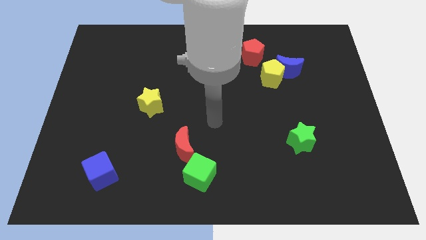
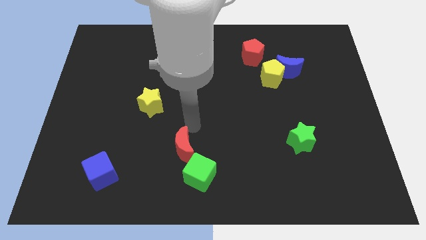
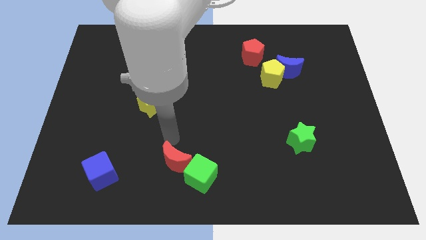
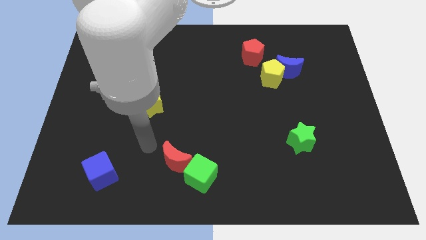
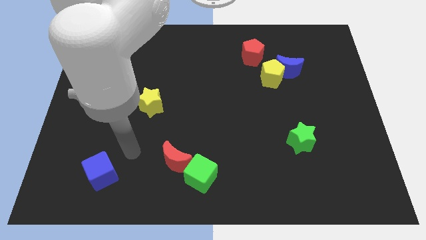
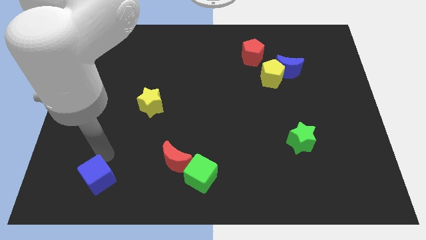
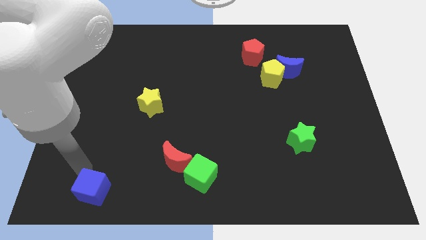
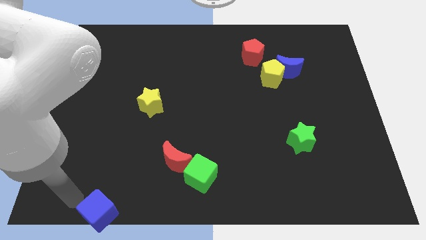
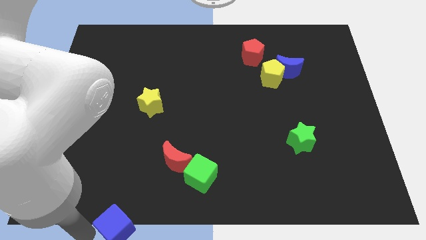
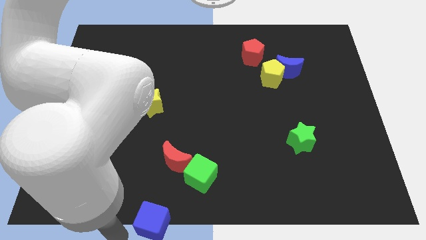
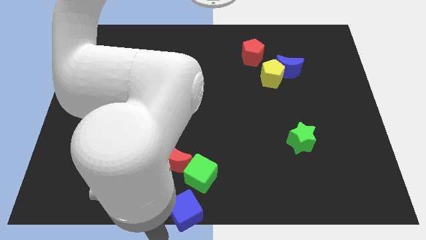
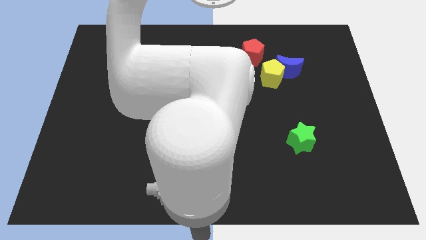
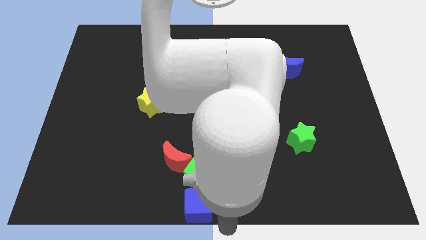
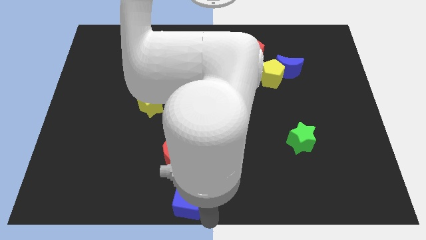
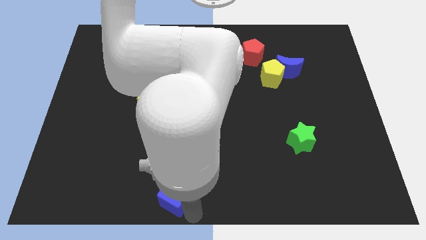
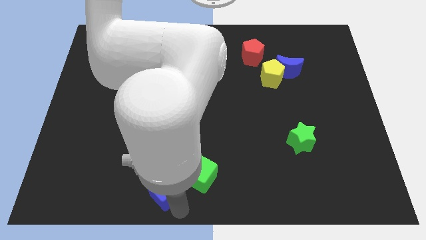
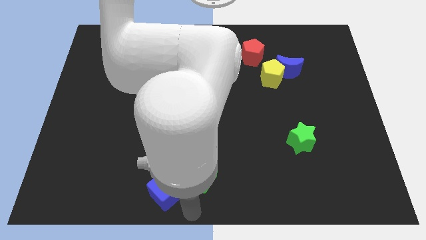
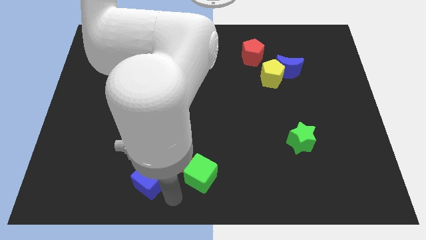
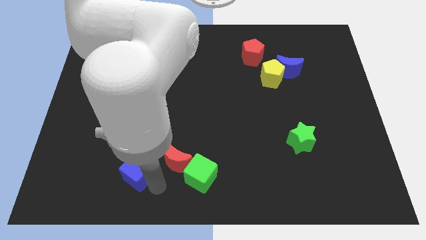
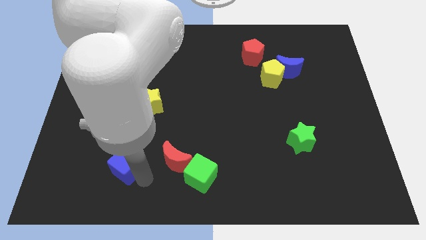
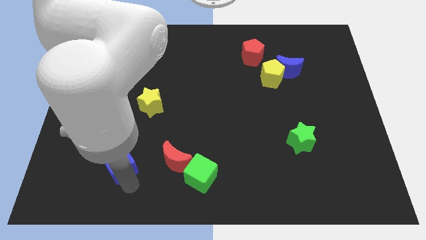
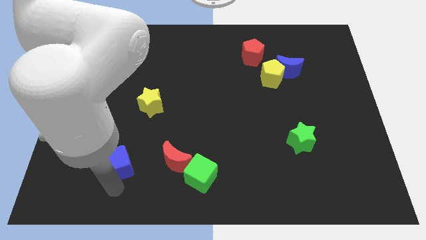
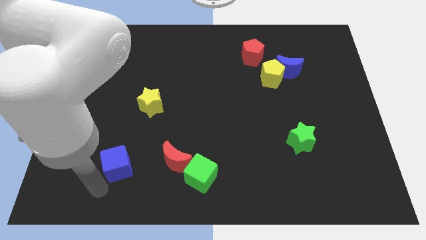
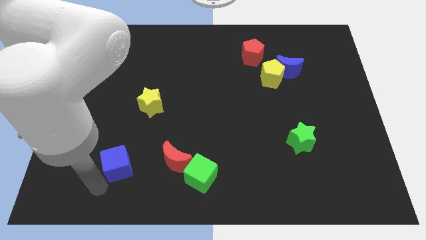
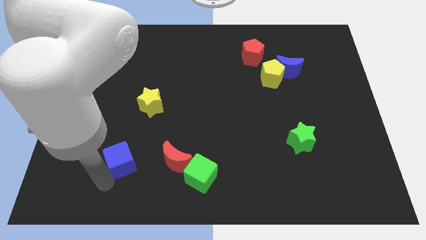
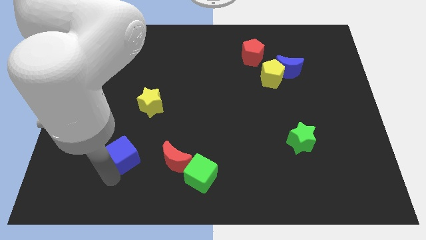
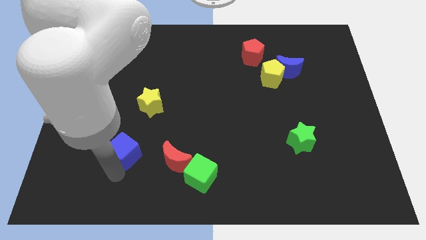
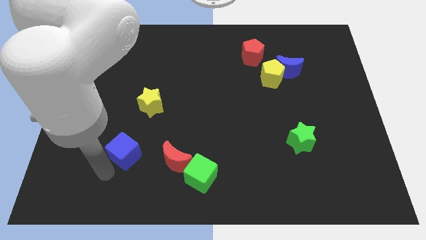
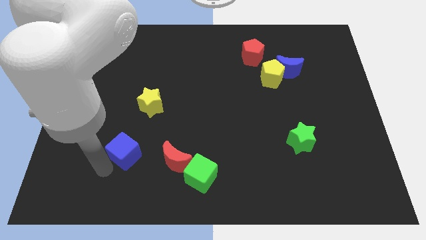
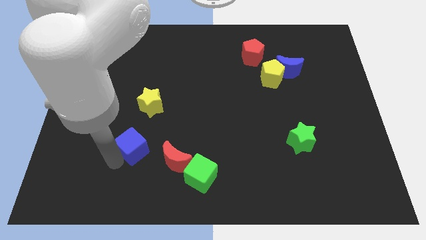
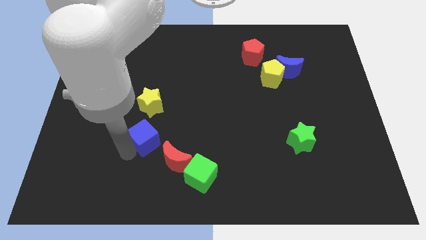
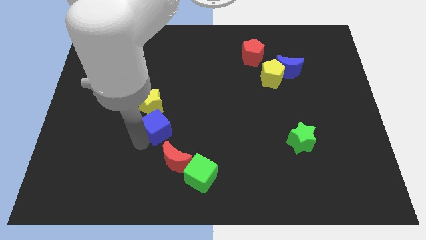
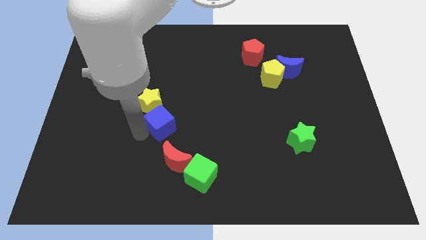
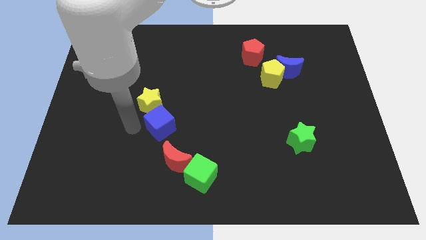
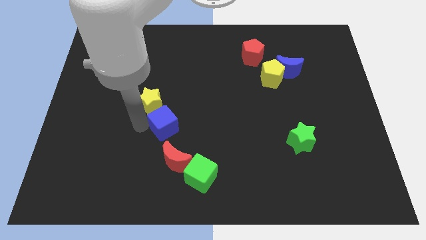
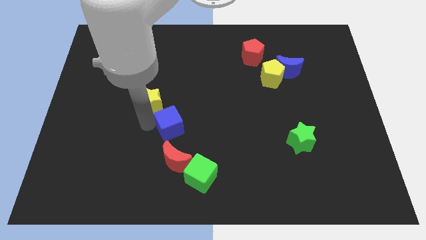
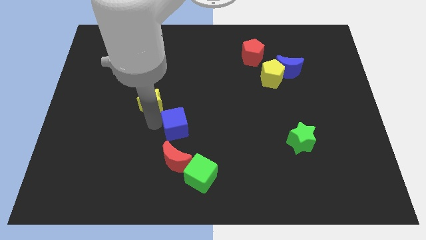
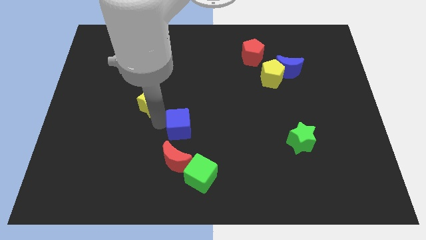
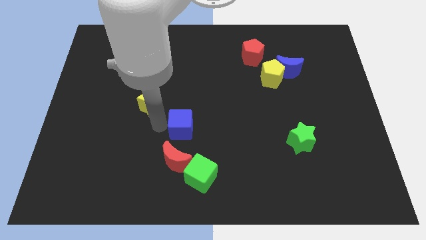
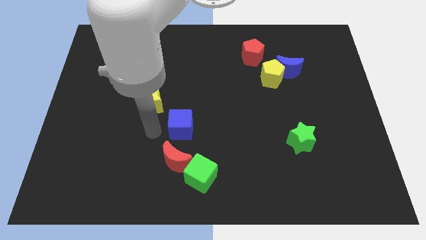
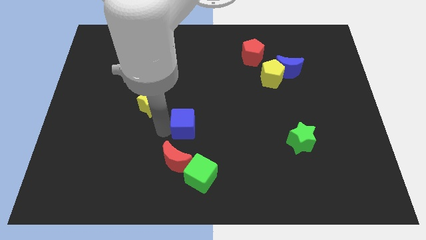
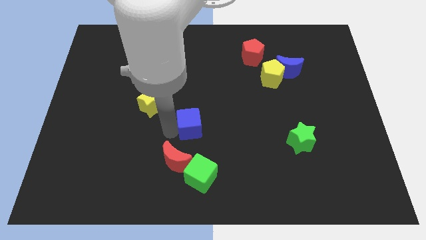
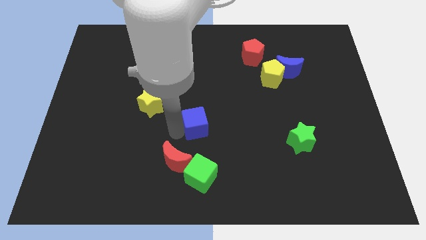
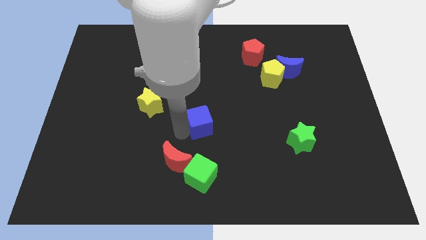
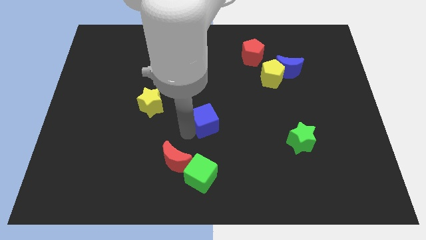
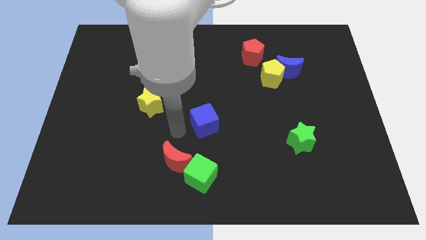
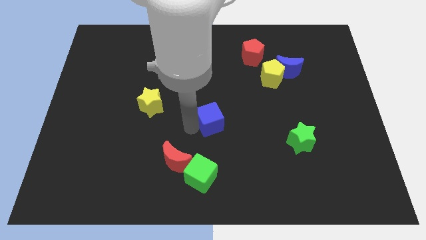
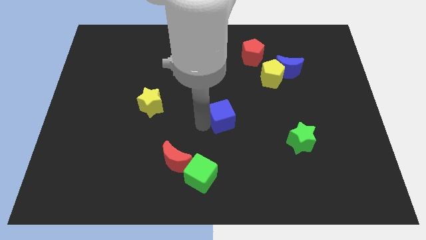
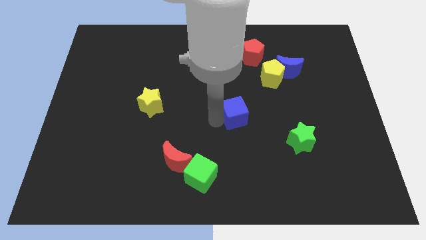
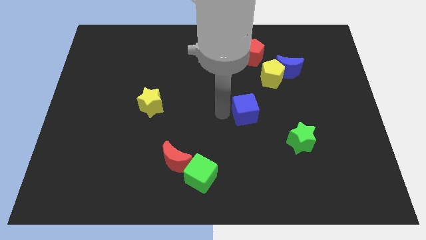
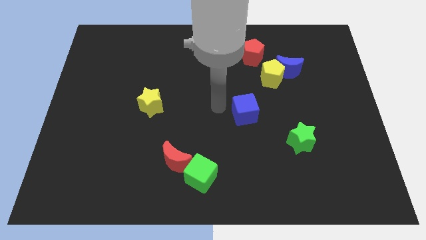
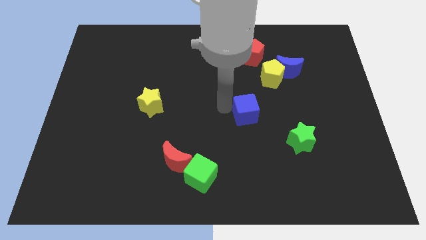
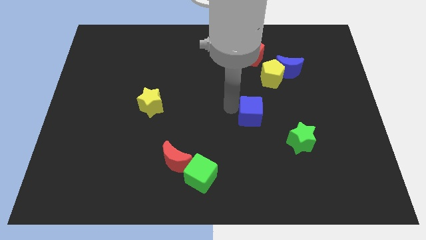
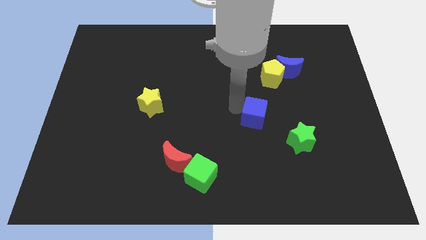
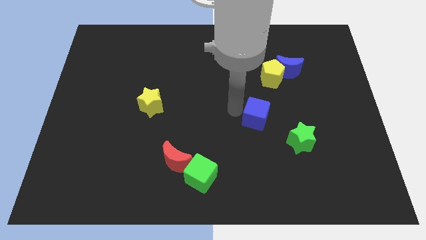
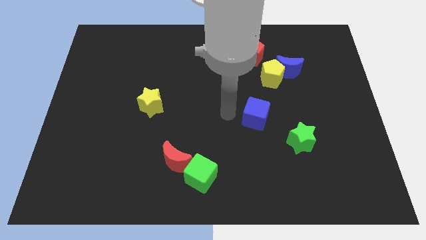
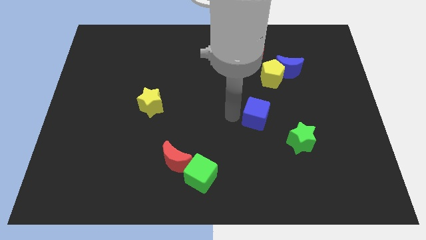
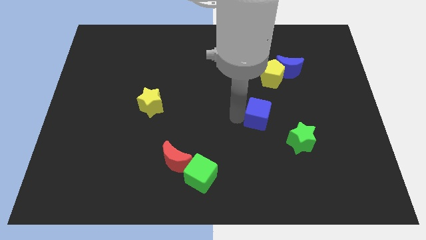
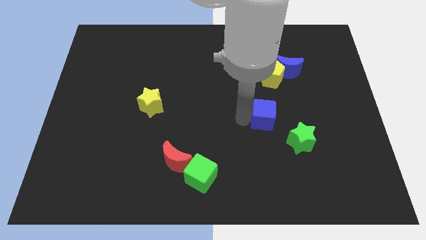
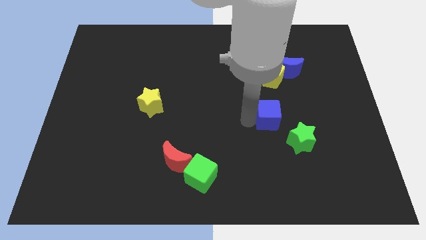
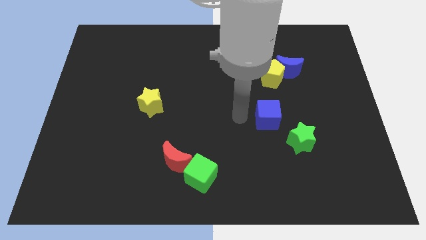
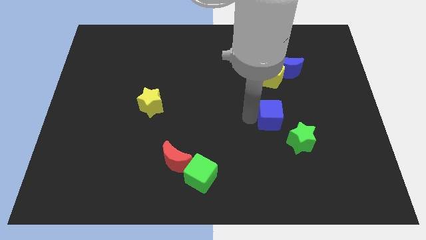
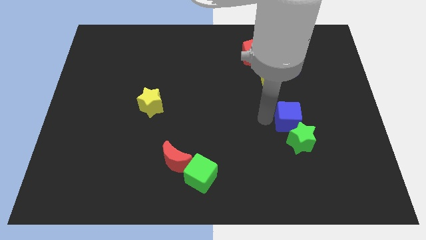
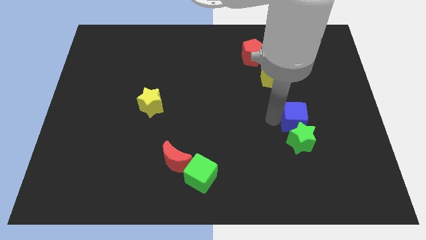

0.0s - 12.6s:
put the blue cube to the top right of the green star

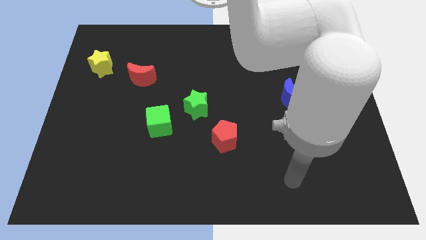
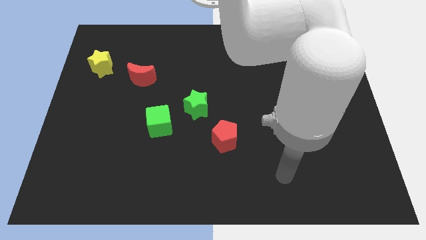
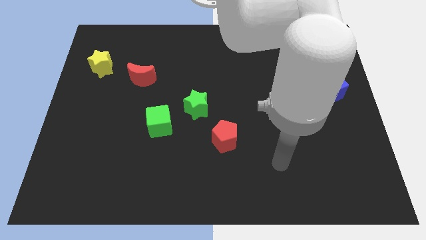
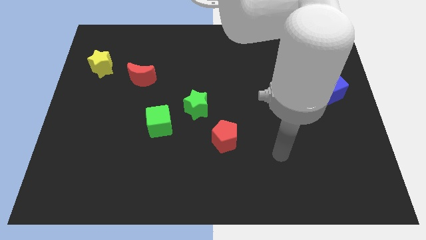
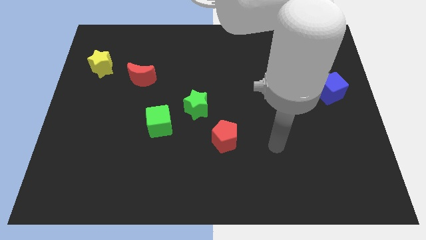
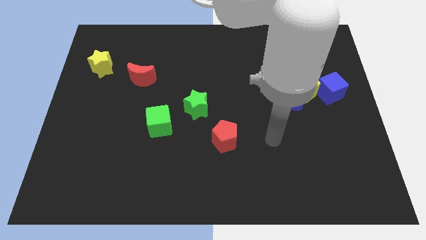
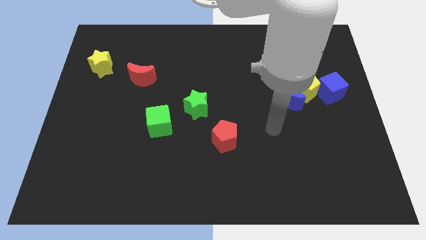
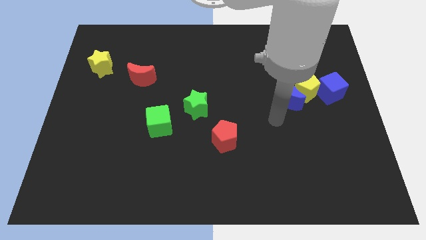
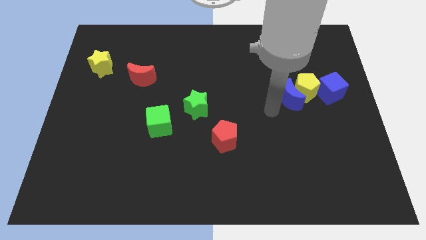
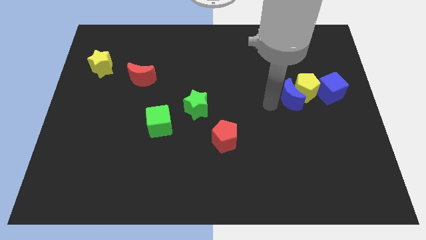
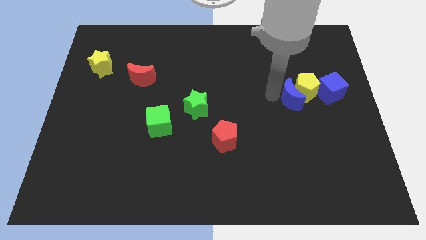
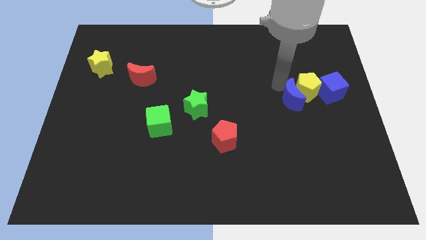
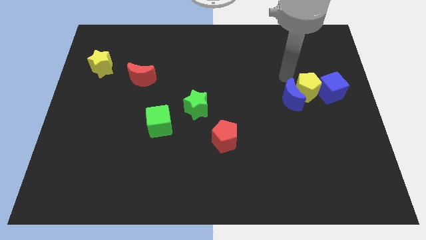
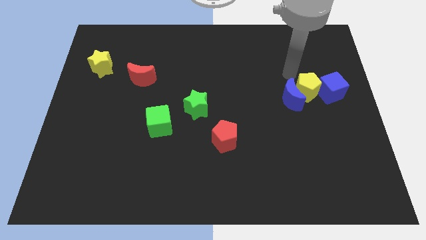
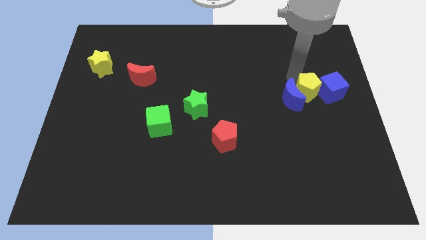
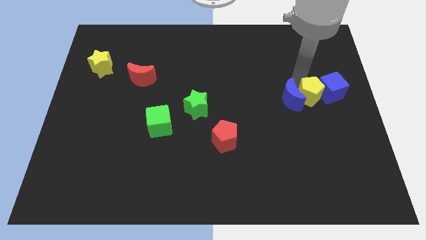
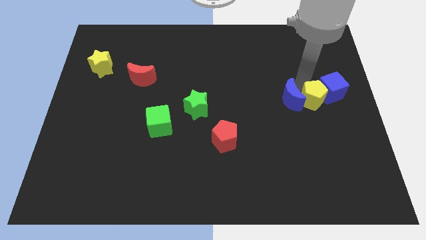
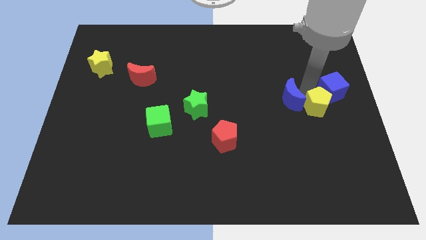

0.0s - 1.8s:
move the yellow pentagon to the bottom side of the blue cube
